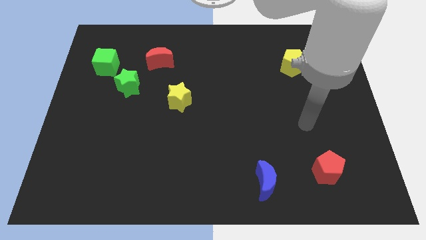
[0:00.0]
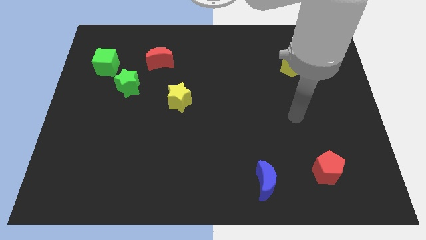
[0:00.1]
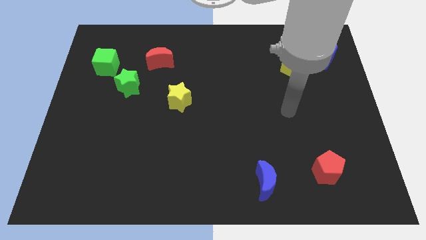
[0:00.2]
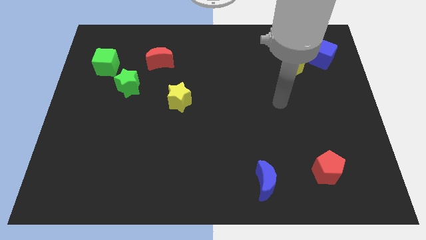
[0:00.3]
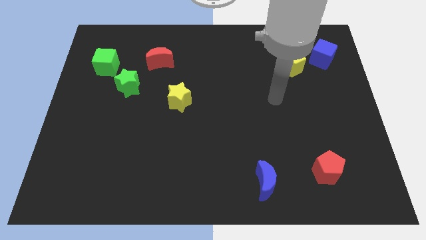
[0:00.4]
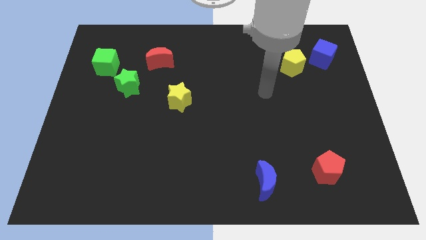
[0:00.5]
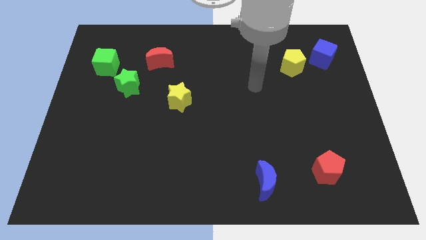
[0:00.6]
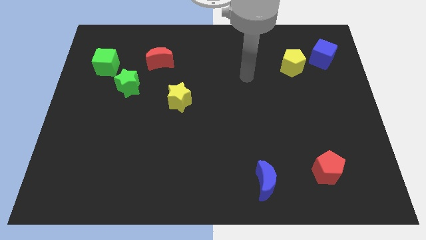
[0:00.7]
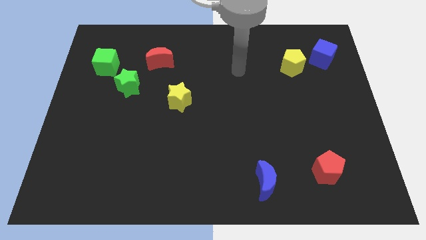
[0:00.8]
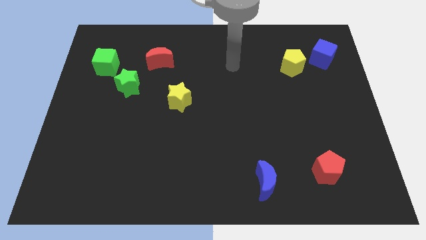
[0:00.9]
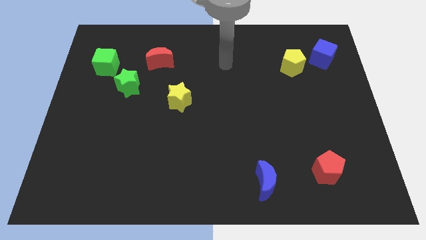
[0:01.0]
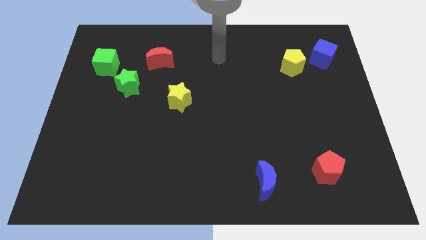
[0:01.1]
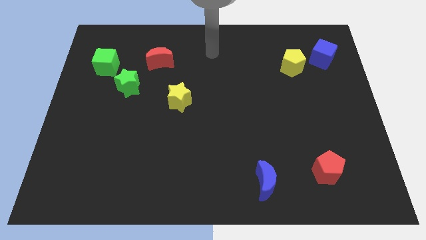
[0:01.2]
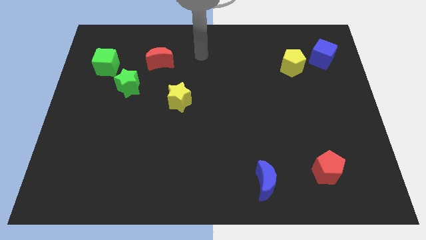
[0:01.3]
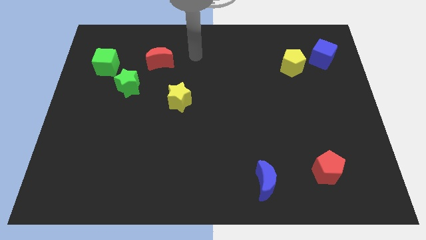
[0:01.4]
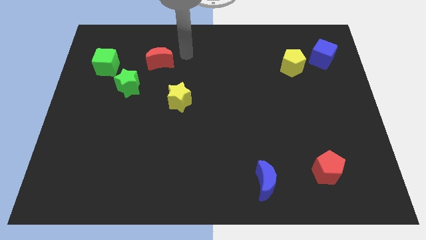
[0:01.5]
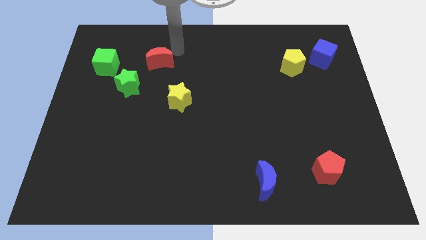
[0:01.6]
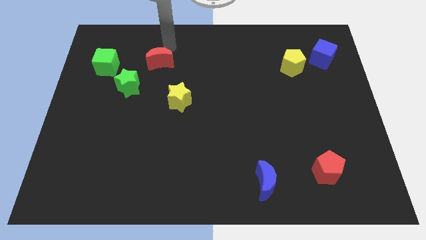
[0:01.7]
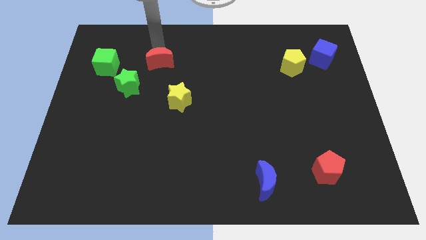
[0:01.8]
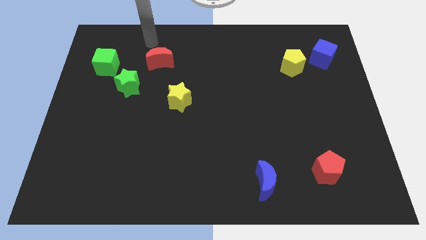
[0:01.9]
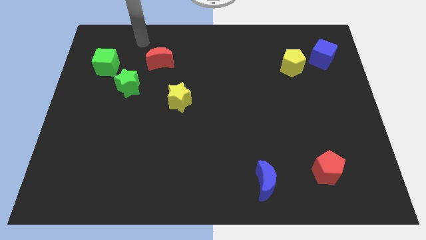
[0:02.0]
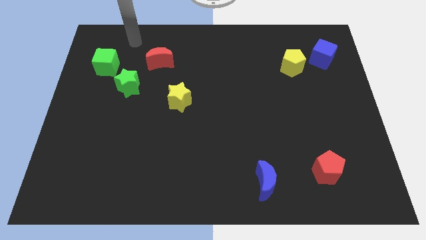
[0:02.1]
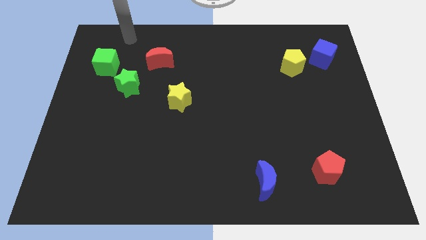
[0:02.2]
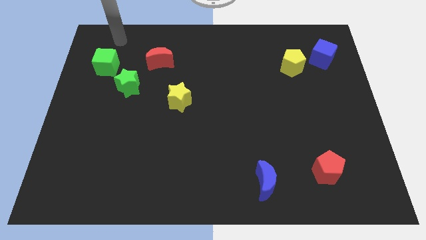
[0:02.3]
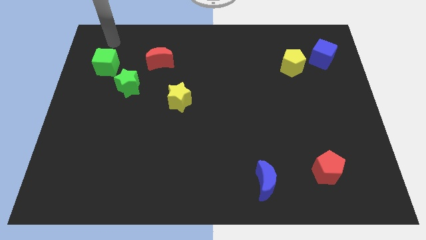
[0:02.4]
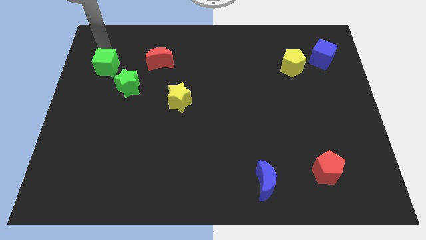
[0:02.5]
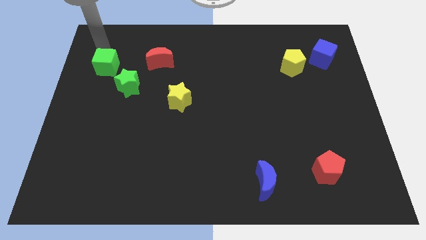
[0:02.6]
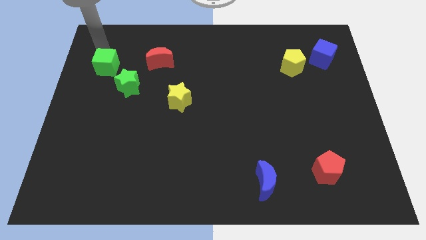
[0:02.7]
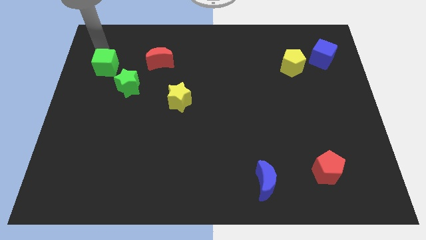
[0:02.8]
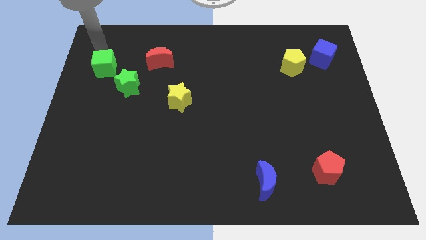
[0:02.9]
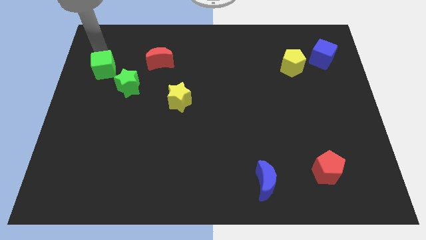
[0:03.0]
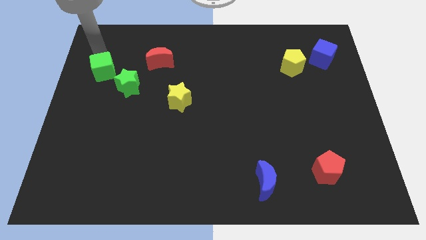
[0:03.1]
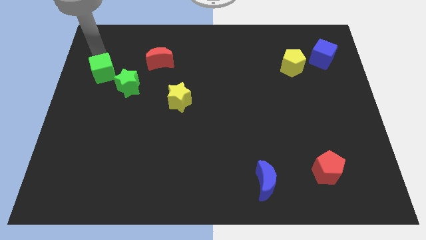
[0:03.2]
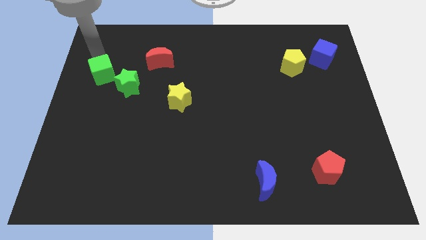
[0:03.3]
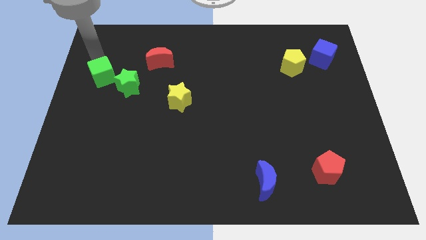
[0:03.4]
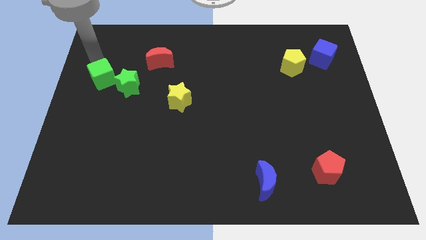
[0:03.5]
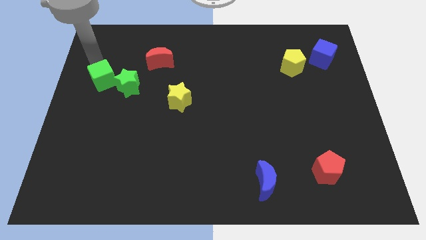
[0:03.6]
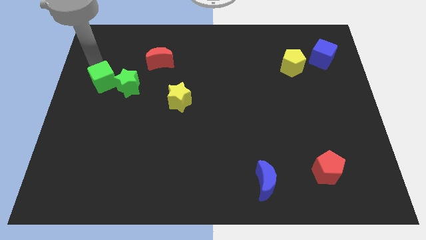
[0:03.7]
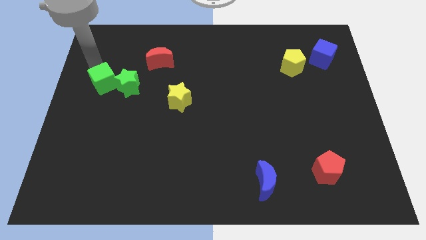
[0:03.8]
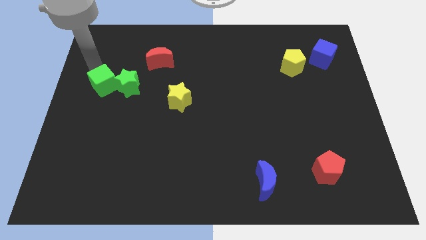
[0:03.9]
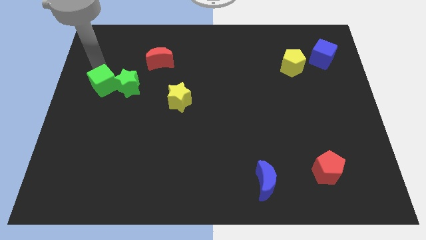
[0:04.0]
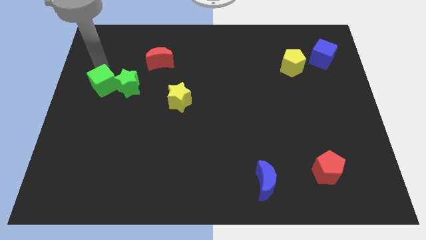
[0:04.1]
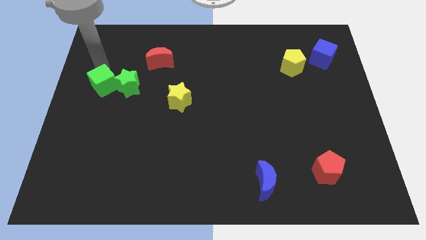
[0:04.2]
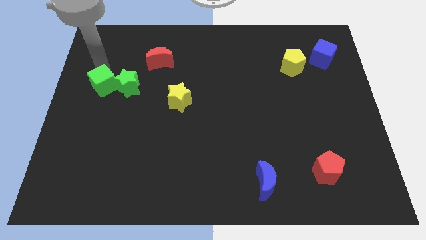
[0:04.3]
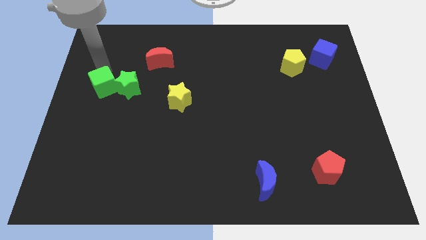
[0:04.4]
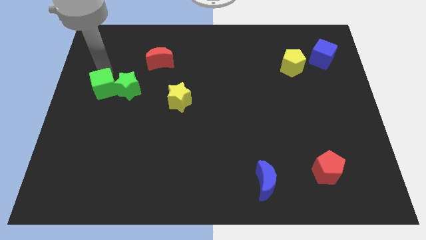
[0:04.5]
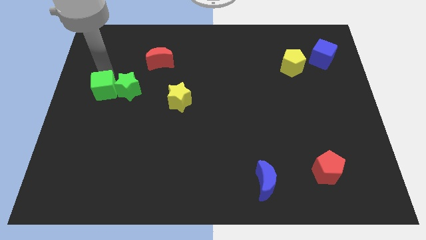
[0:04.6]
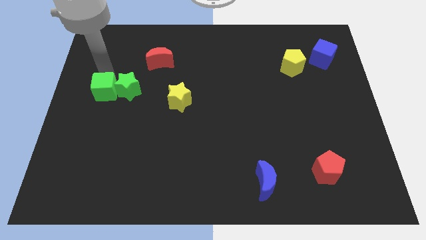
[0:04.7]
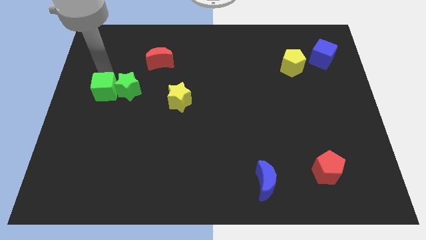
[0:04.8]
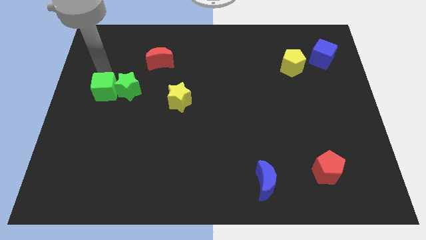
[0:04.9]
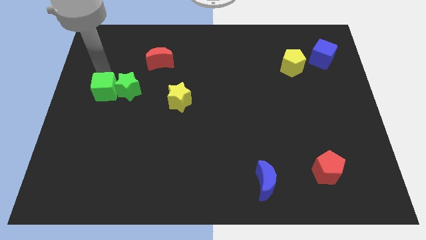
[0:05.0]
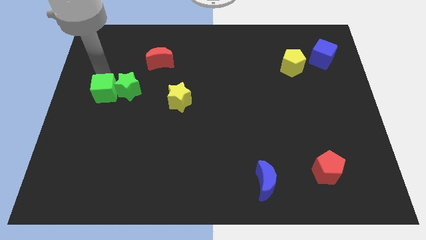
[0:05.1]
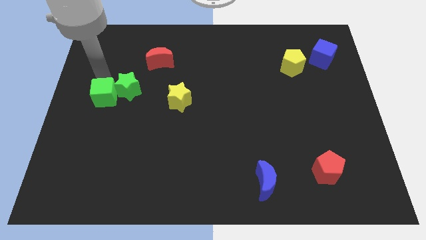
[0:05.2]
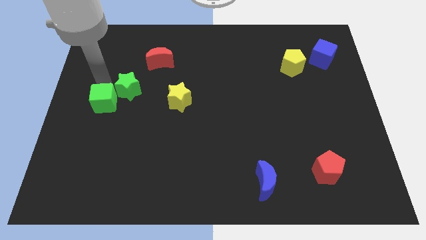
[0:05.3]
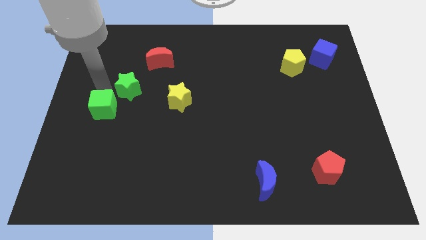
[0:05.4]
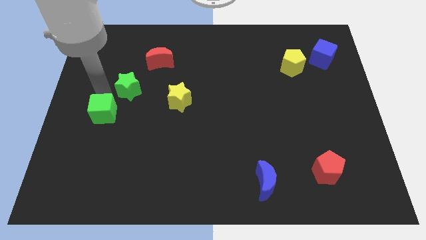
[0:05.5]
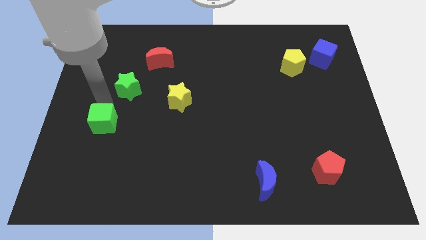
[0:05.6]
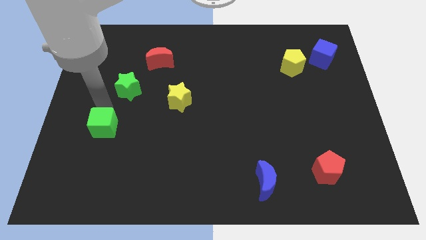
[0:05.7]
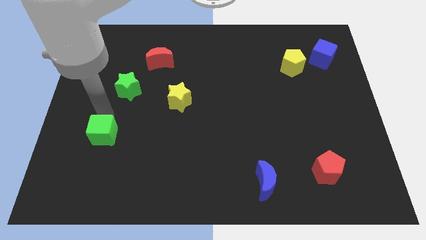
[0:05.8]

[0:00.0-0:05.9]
move the green cube downwards

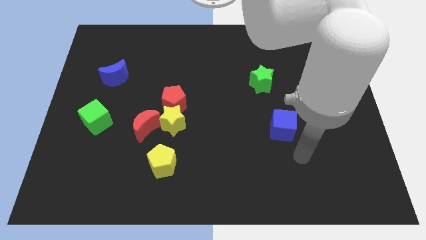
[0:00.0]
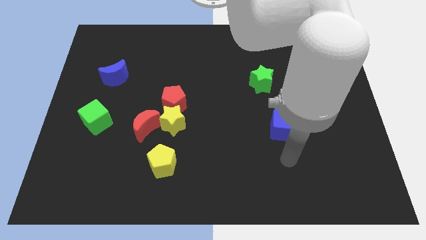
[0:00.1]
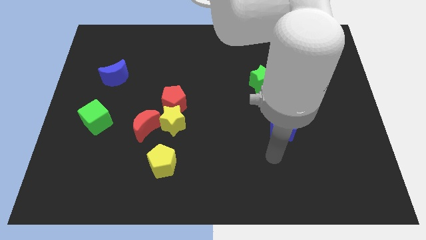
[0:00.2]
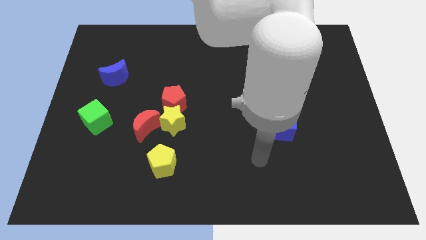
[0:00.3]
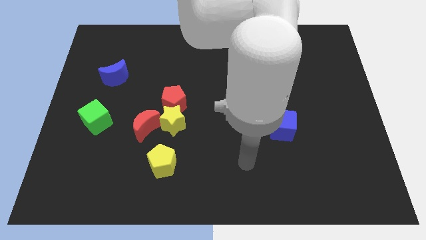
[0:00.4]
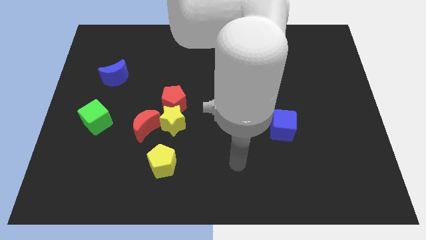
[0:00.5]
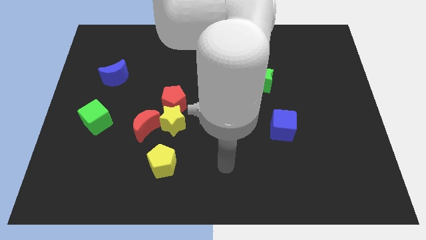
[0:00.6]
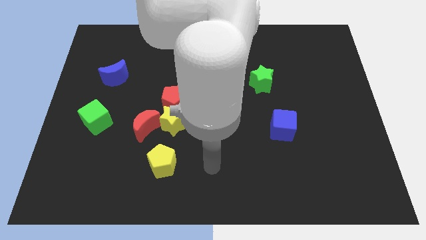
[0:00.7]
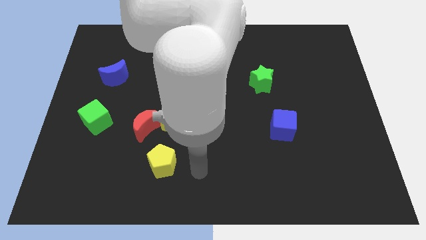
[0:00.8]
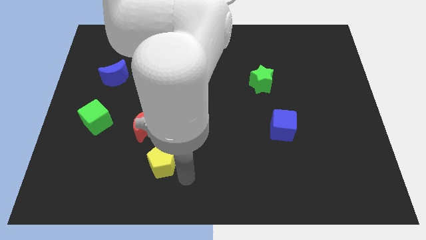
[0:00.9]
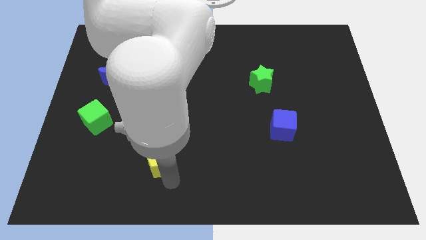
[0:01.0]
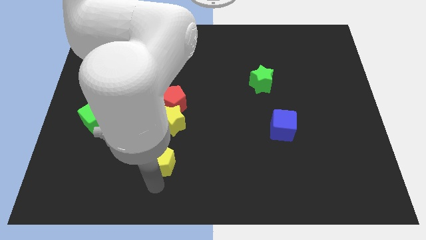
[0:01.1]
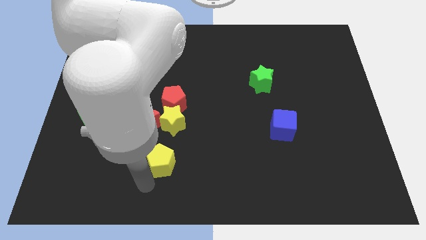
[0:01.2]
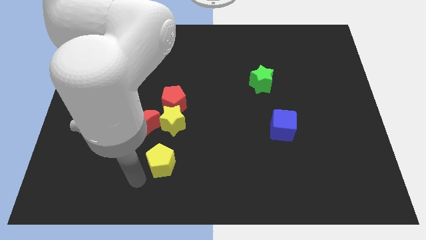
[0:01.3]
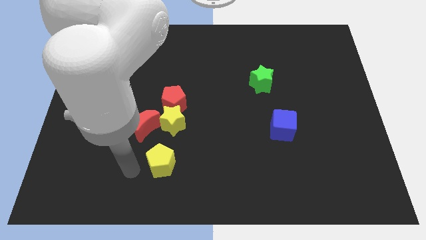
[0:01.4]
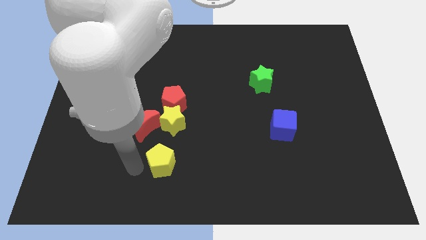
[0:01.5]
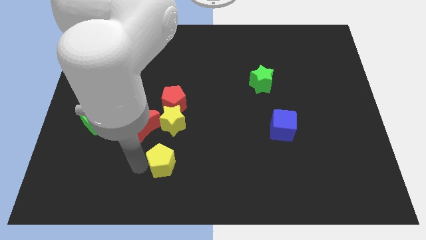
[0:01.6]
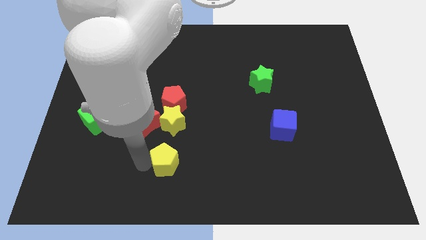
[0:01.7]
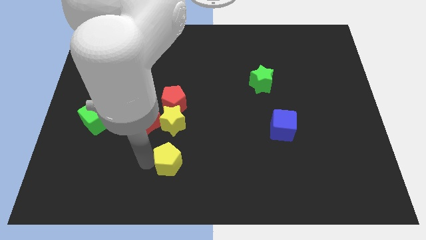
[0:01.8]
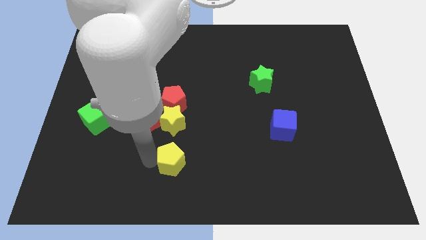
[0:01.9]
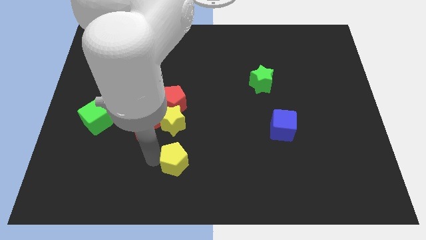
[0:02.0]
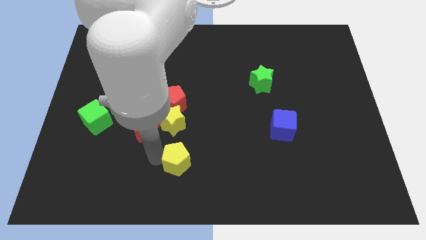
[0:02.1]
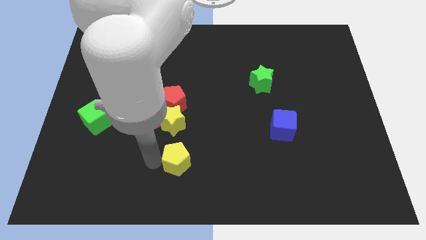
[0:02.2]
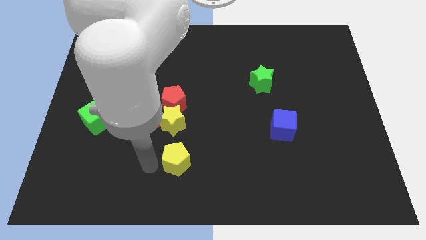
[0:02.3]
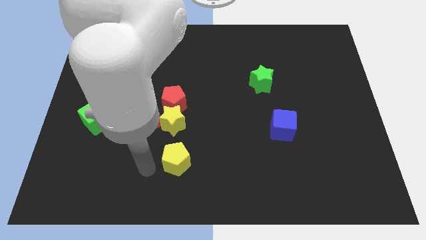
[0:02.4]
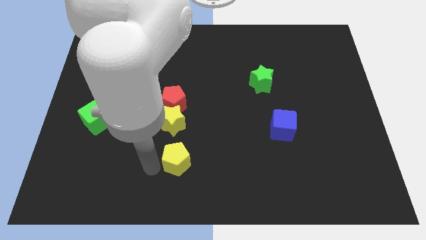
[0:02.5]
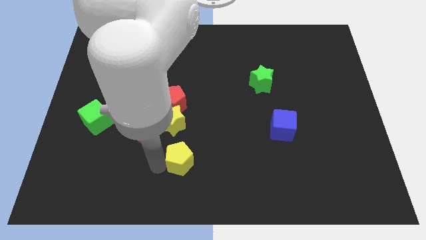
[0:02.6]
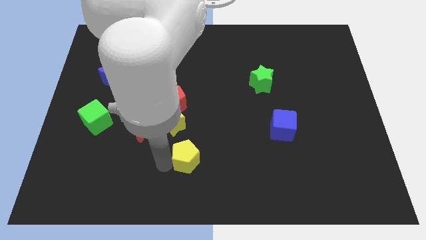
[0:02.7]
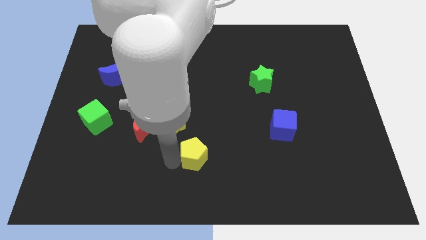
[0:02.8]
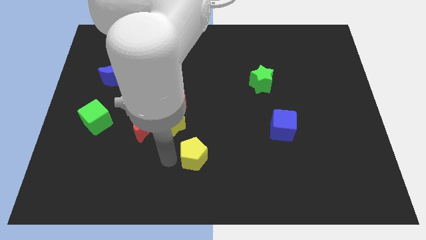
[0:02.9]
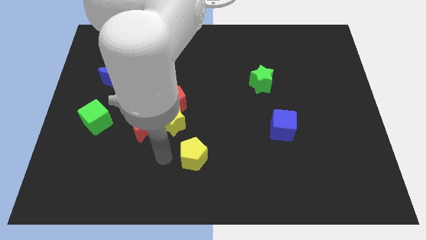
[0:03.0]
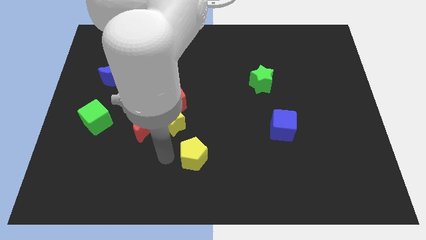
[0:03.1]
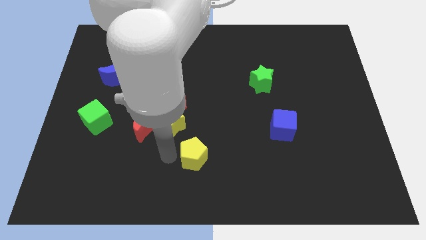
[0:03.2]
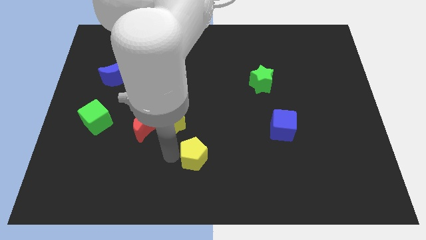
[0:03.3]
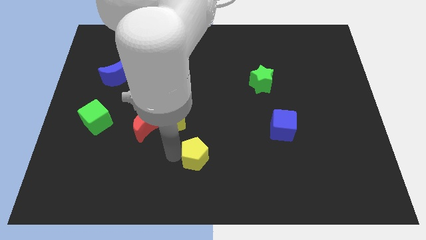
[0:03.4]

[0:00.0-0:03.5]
move the yellow pentagon a little to the right
